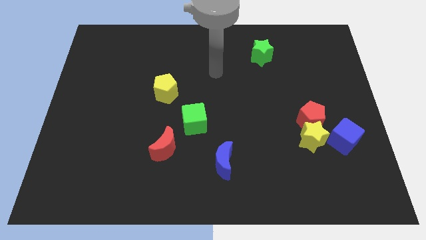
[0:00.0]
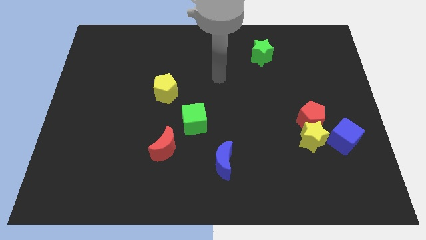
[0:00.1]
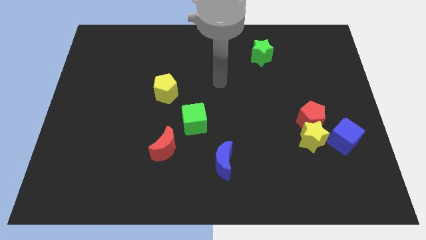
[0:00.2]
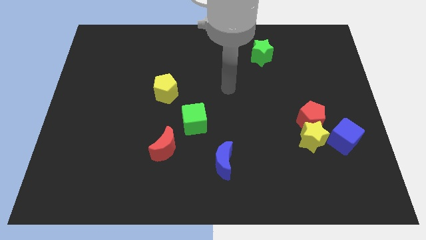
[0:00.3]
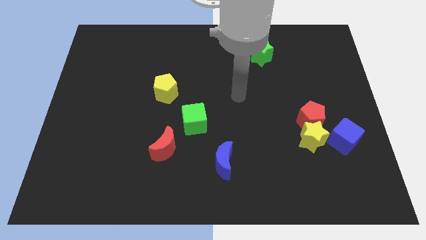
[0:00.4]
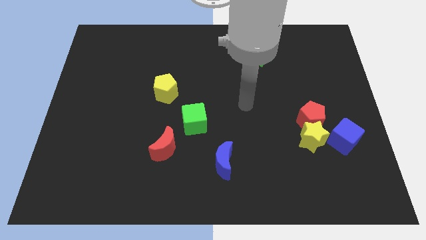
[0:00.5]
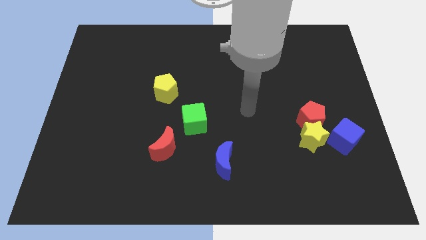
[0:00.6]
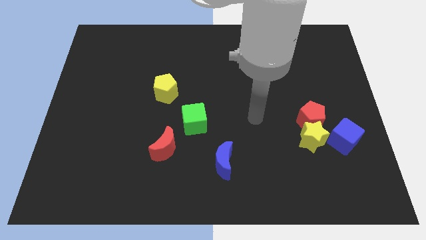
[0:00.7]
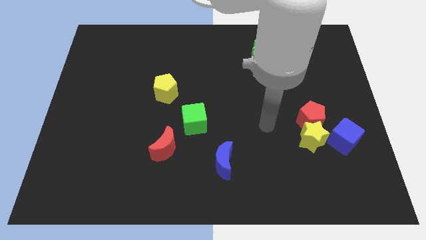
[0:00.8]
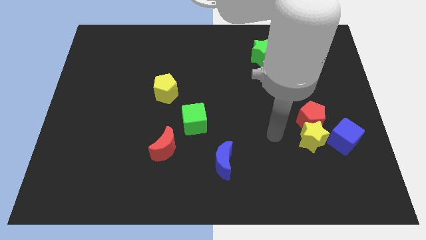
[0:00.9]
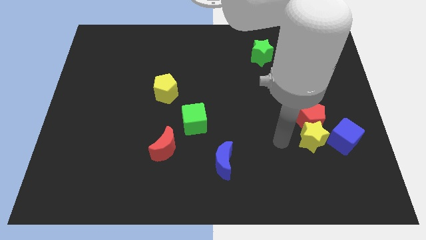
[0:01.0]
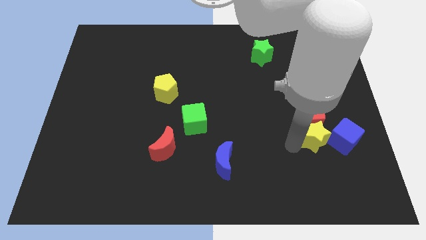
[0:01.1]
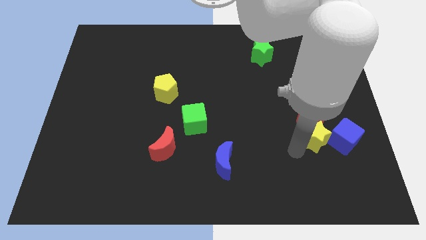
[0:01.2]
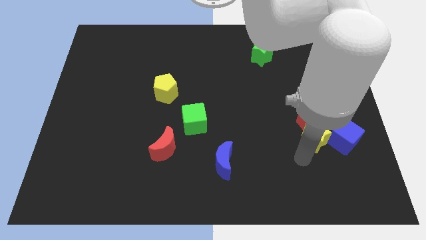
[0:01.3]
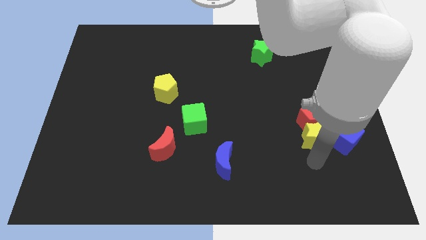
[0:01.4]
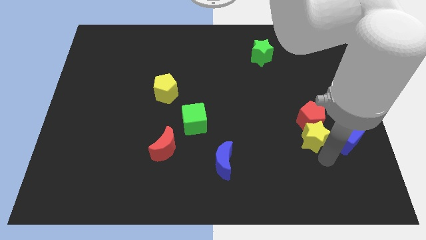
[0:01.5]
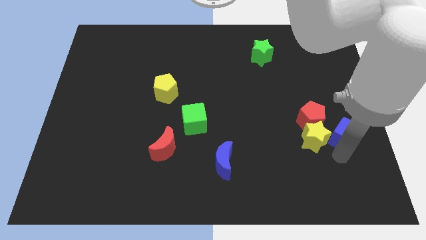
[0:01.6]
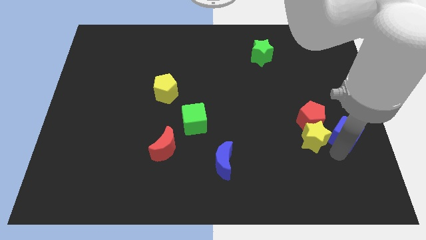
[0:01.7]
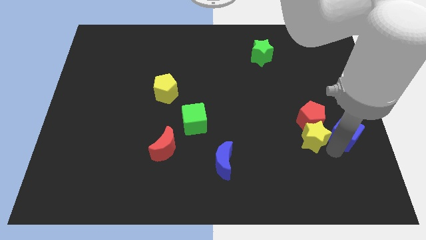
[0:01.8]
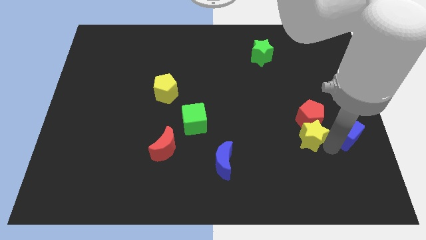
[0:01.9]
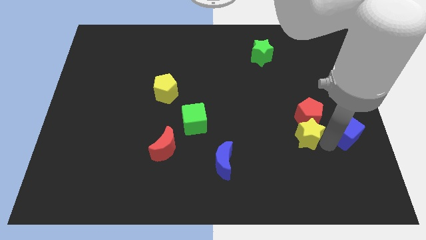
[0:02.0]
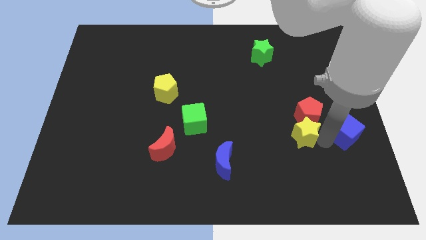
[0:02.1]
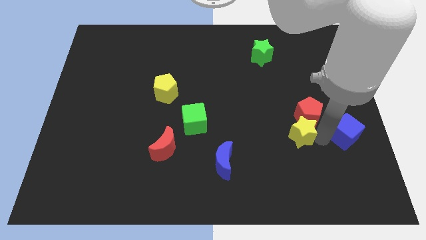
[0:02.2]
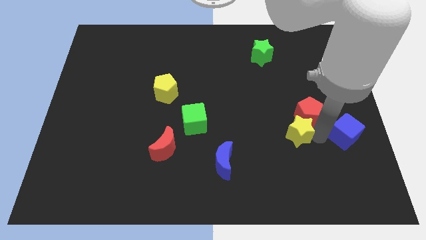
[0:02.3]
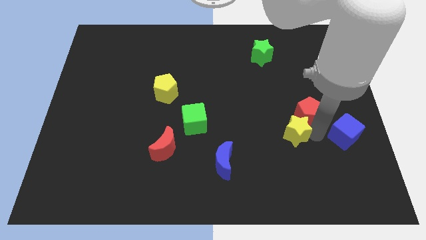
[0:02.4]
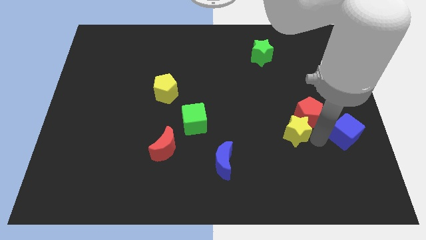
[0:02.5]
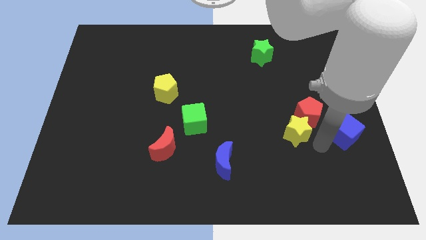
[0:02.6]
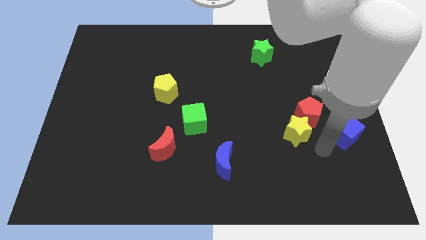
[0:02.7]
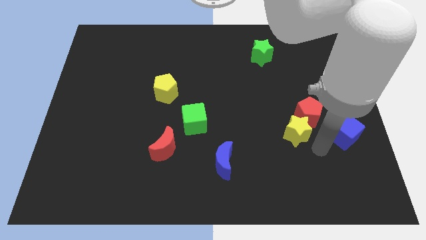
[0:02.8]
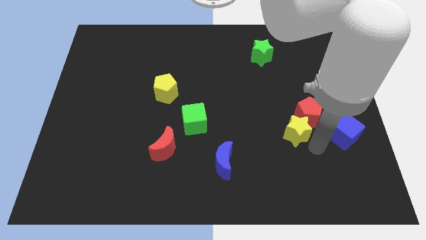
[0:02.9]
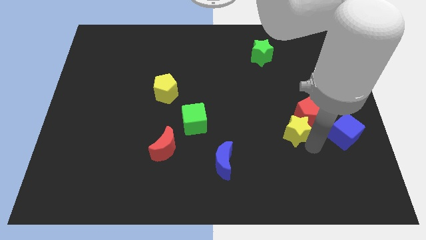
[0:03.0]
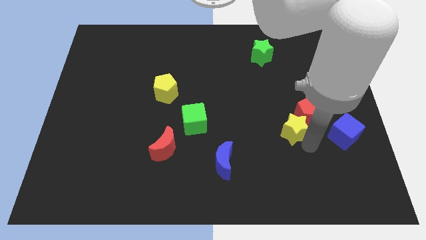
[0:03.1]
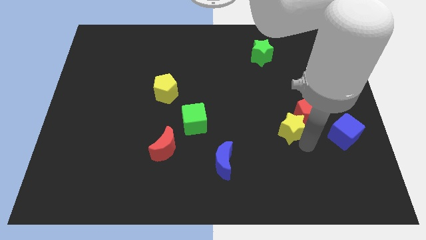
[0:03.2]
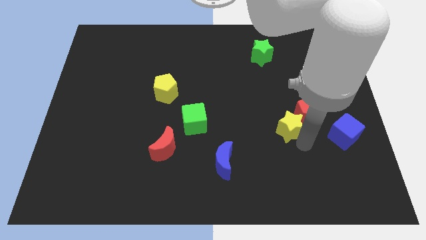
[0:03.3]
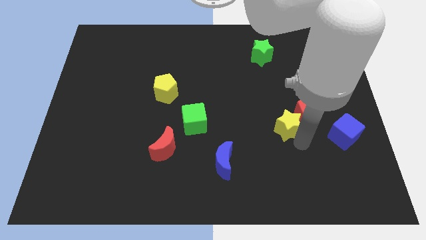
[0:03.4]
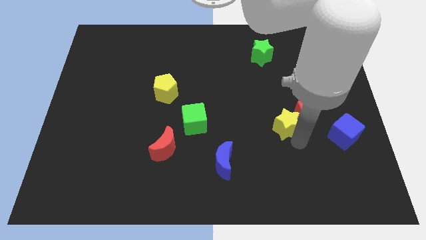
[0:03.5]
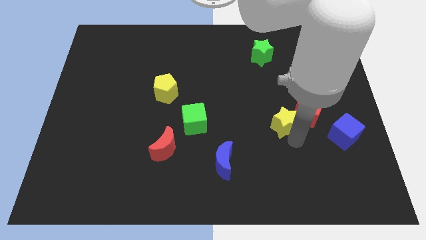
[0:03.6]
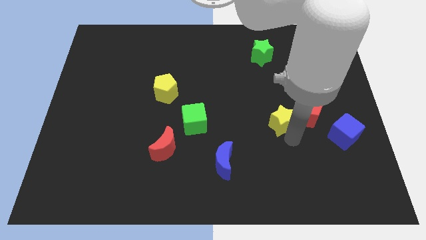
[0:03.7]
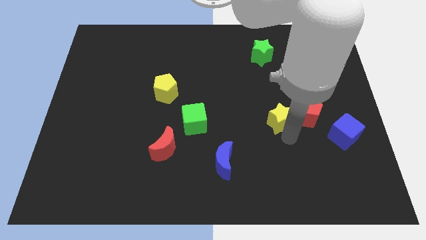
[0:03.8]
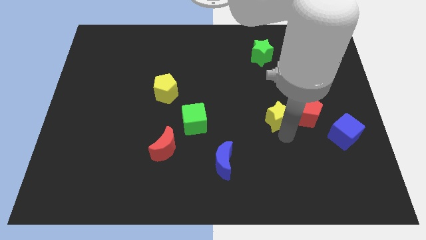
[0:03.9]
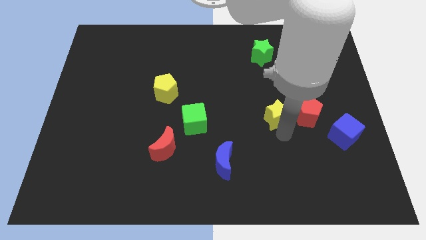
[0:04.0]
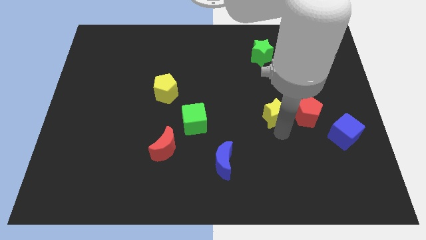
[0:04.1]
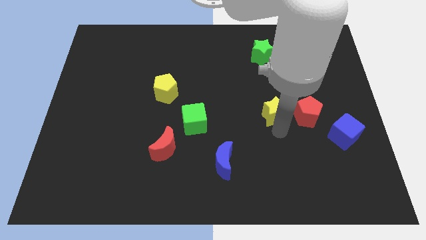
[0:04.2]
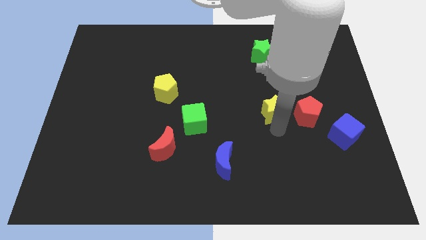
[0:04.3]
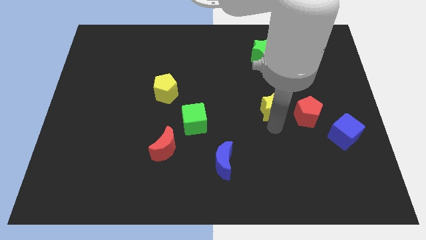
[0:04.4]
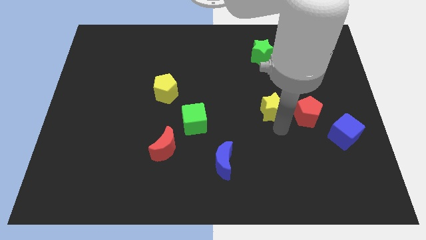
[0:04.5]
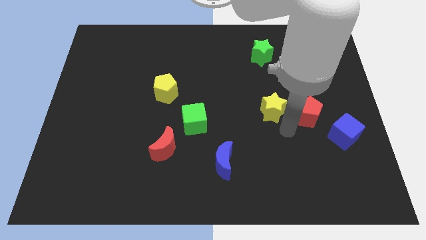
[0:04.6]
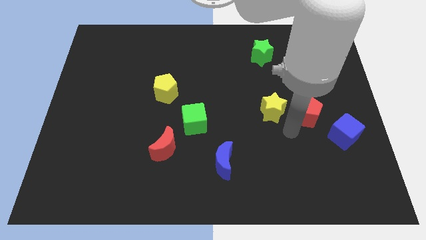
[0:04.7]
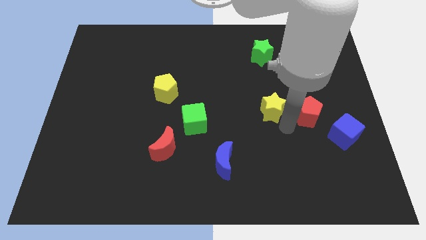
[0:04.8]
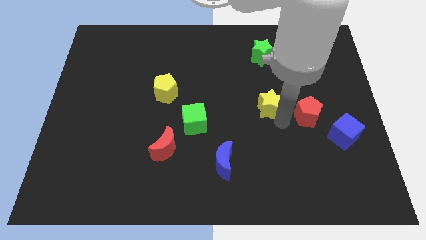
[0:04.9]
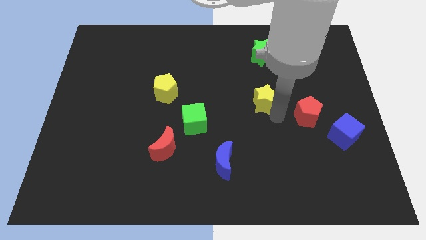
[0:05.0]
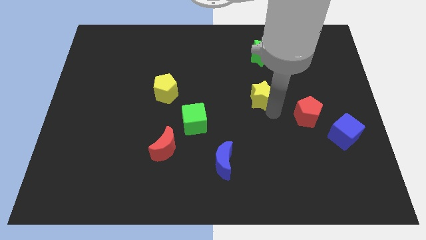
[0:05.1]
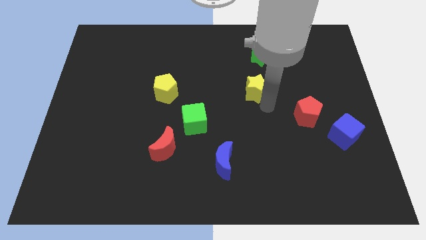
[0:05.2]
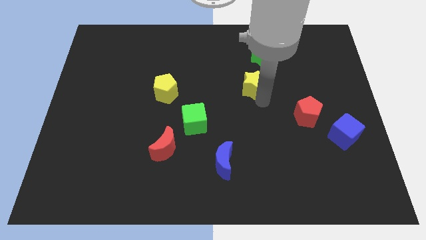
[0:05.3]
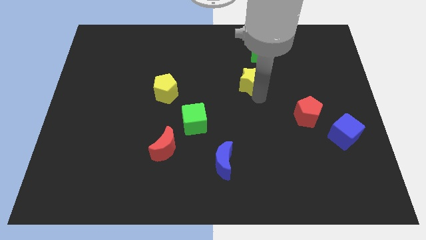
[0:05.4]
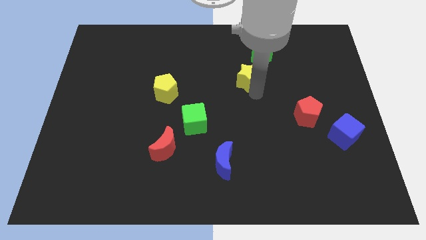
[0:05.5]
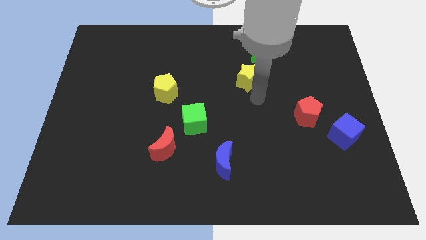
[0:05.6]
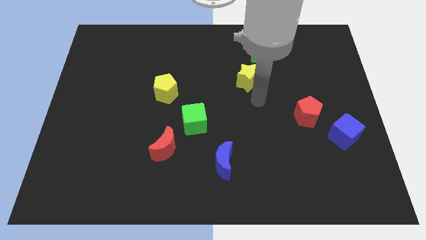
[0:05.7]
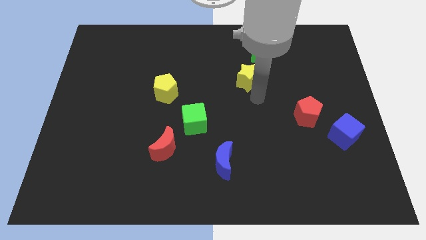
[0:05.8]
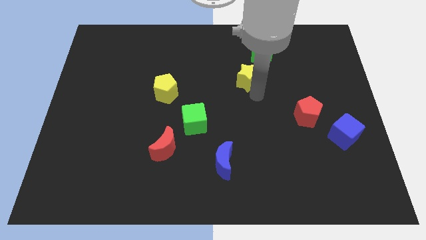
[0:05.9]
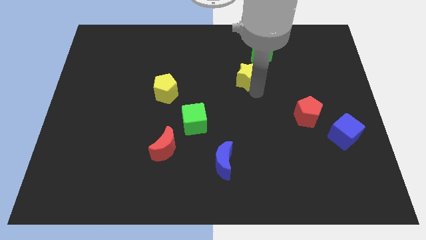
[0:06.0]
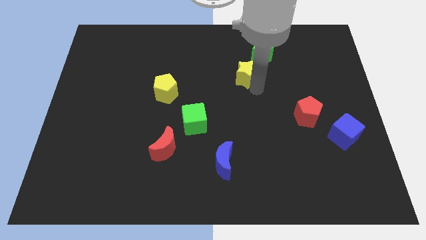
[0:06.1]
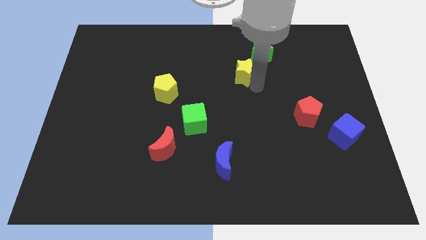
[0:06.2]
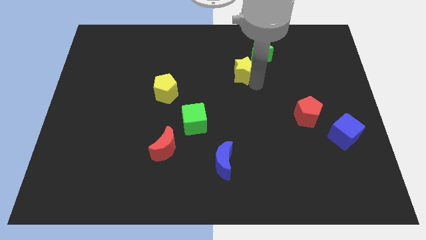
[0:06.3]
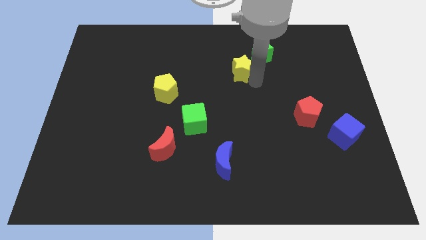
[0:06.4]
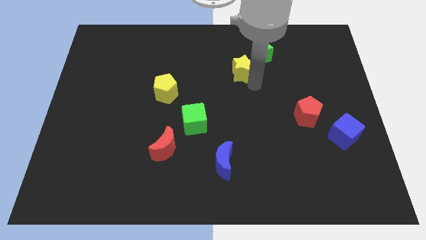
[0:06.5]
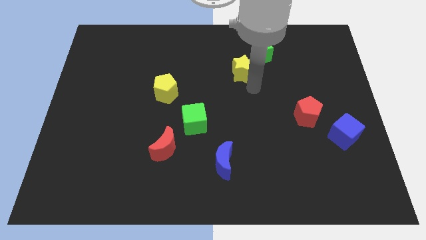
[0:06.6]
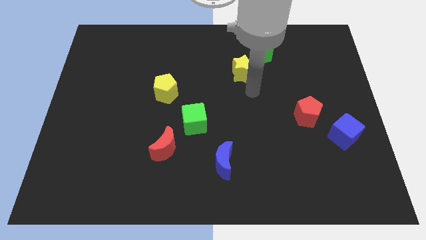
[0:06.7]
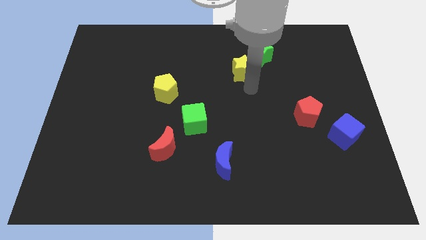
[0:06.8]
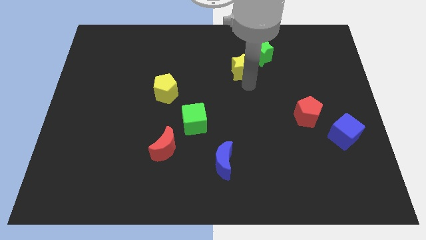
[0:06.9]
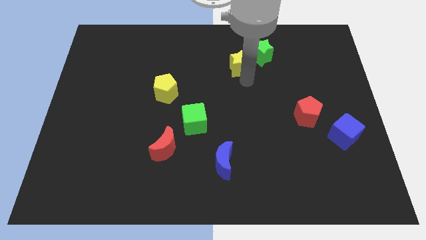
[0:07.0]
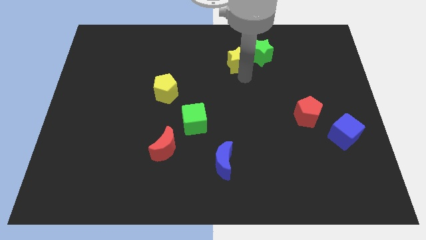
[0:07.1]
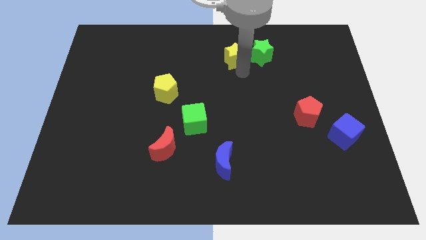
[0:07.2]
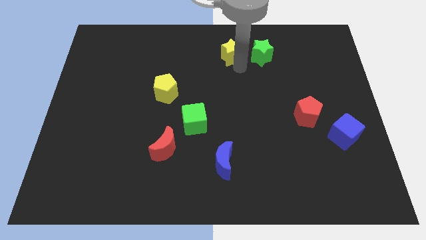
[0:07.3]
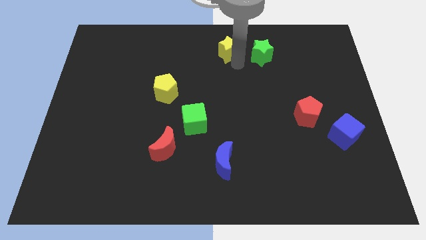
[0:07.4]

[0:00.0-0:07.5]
slide the yellow star to the towards your base

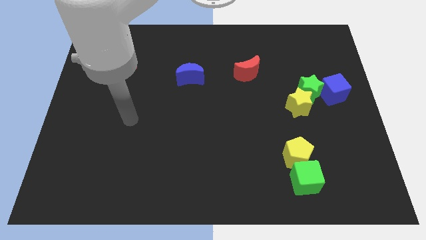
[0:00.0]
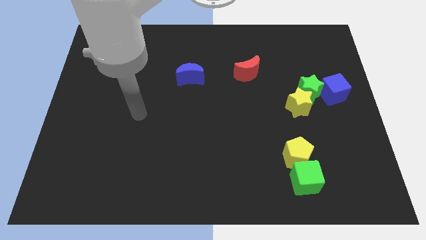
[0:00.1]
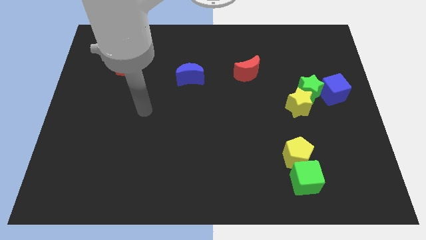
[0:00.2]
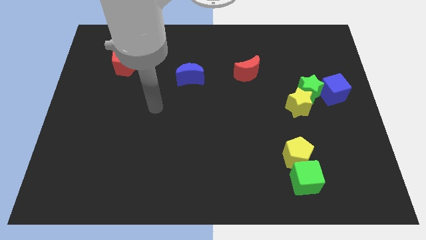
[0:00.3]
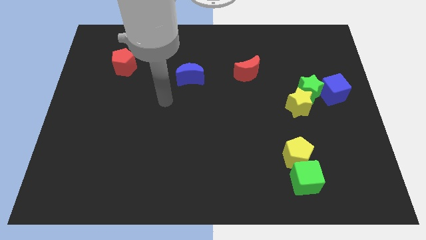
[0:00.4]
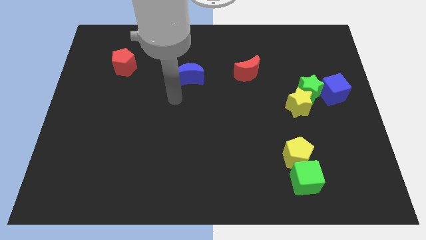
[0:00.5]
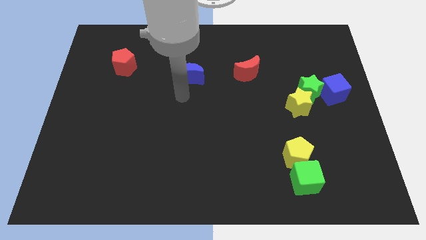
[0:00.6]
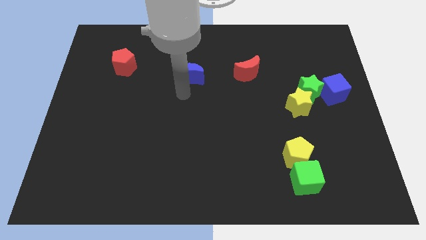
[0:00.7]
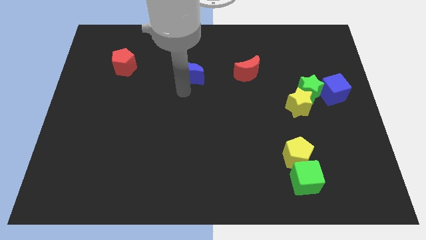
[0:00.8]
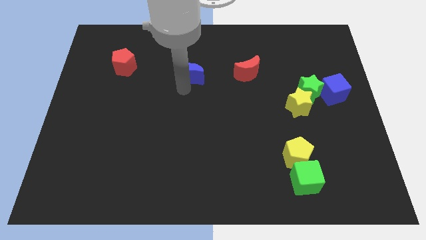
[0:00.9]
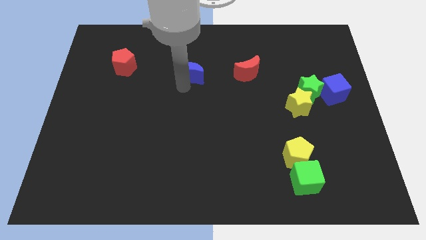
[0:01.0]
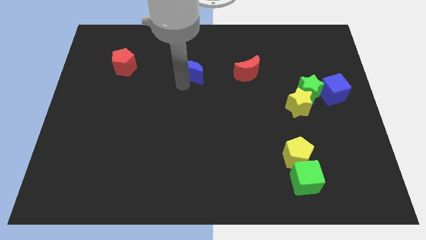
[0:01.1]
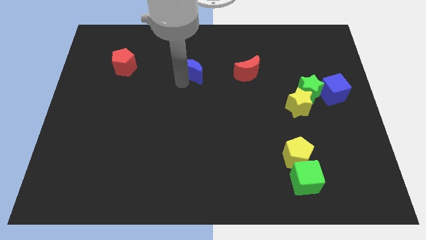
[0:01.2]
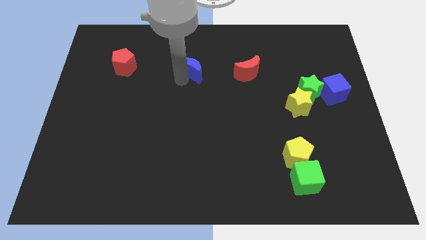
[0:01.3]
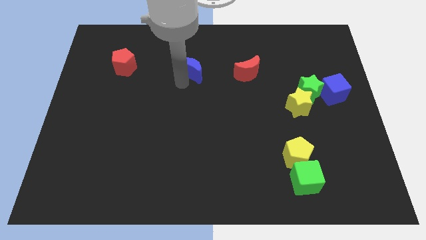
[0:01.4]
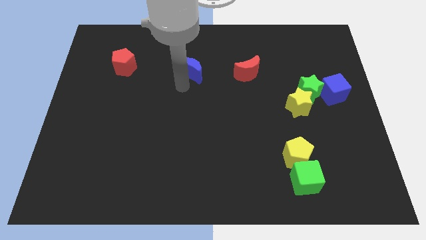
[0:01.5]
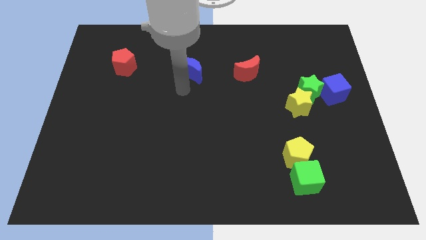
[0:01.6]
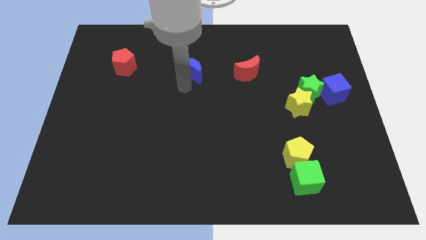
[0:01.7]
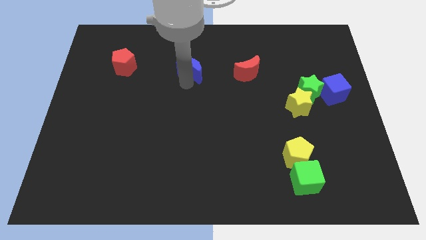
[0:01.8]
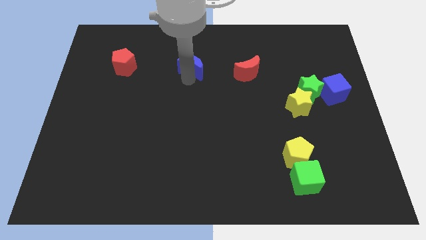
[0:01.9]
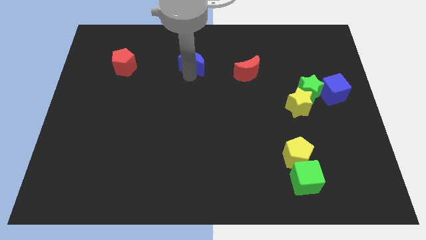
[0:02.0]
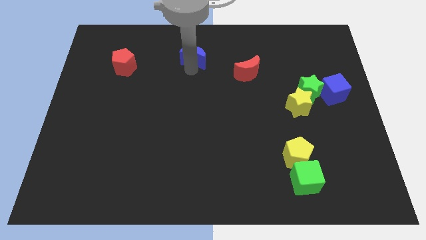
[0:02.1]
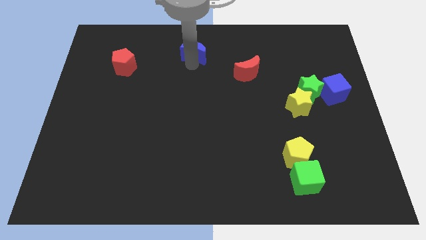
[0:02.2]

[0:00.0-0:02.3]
push the blue moon to the top side
